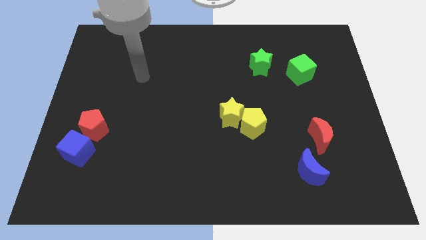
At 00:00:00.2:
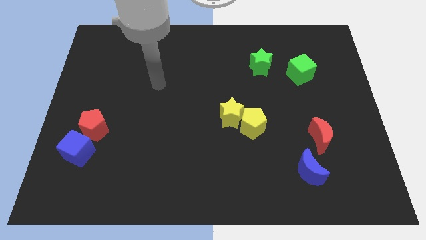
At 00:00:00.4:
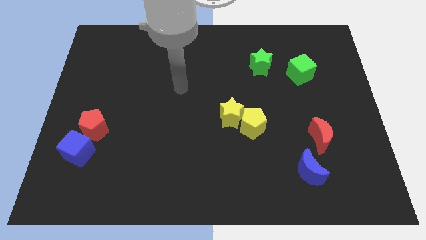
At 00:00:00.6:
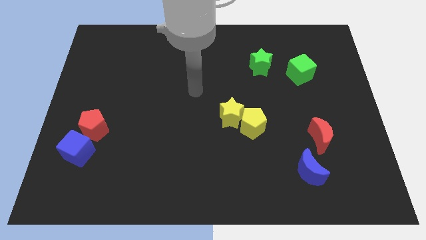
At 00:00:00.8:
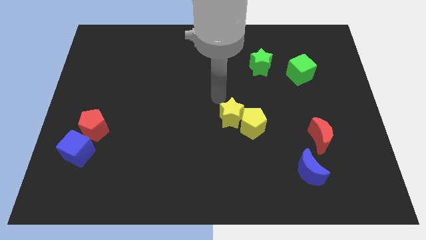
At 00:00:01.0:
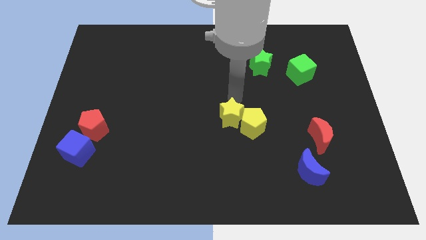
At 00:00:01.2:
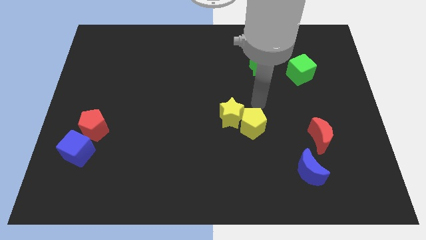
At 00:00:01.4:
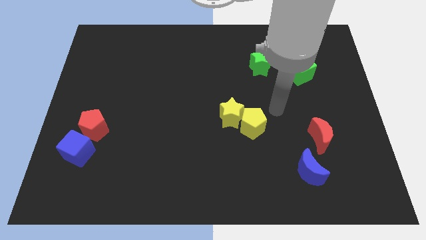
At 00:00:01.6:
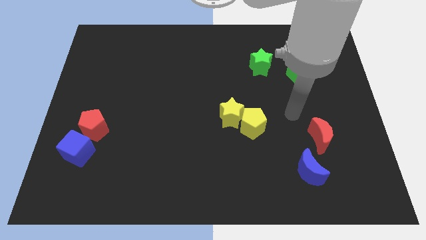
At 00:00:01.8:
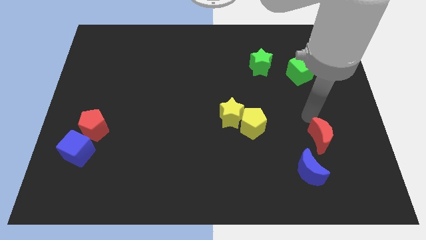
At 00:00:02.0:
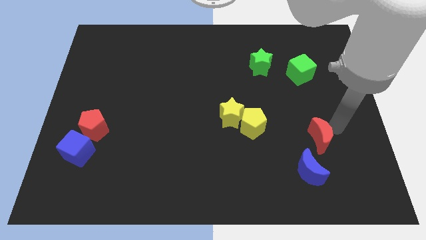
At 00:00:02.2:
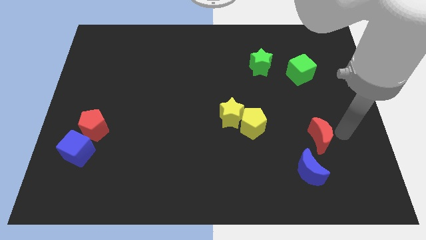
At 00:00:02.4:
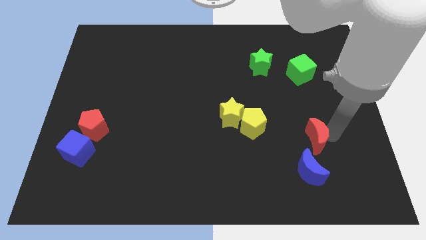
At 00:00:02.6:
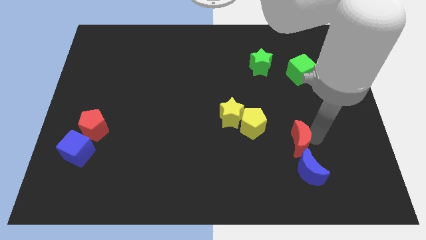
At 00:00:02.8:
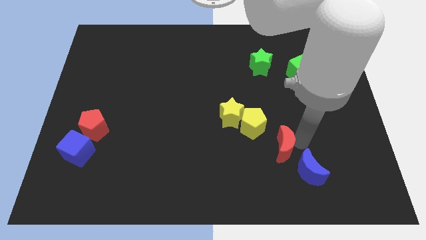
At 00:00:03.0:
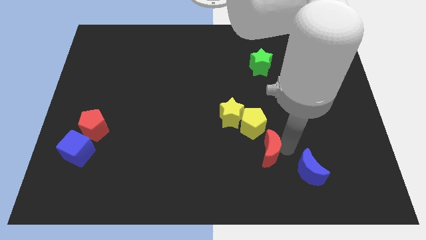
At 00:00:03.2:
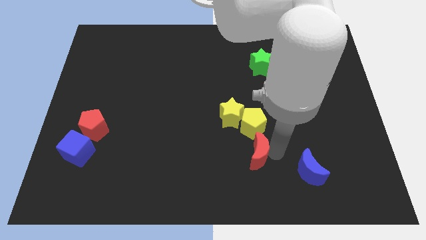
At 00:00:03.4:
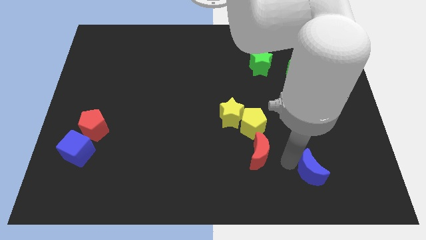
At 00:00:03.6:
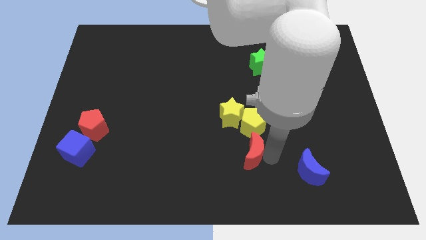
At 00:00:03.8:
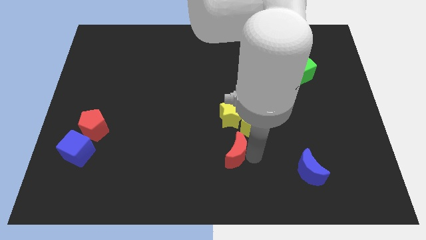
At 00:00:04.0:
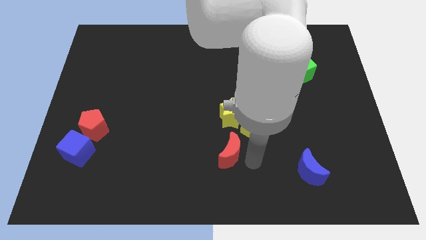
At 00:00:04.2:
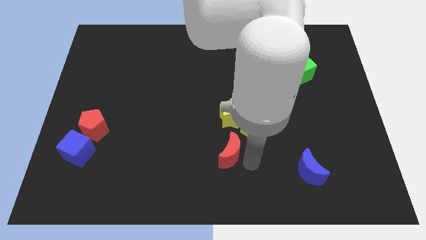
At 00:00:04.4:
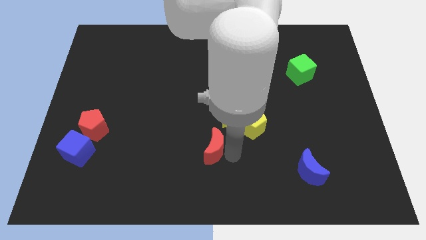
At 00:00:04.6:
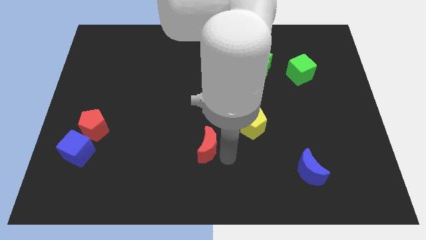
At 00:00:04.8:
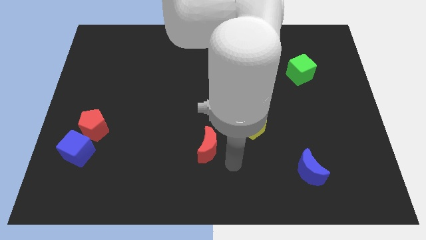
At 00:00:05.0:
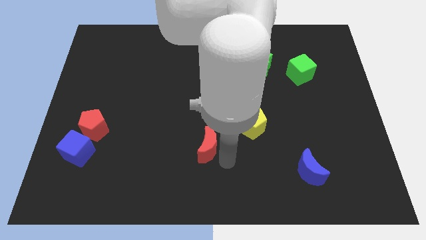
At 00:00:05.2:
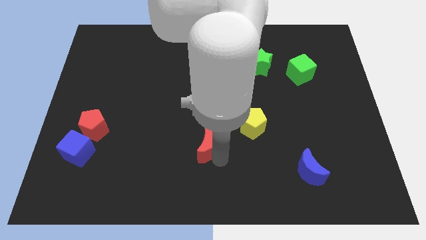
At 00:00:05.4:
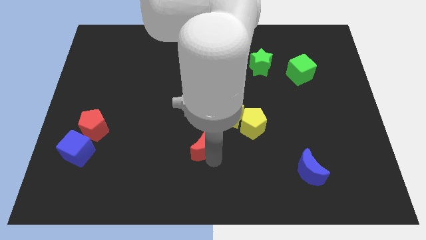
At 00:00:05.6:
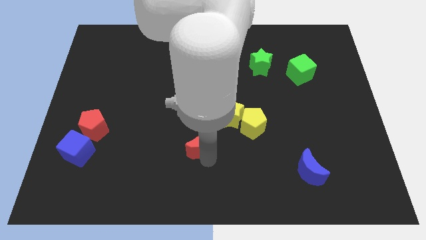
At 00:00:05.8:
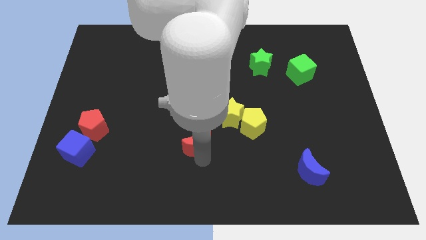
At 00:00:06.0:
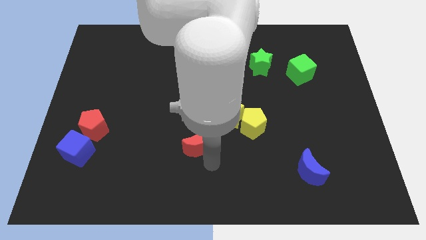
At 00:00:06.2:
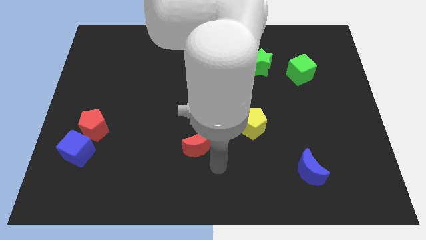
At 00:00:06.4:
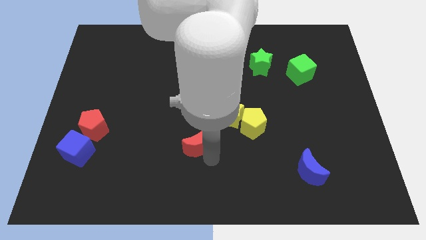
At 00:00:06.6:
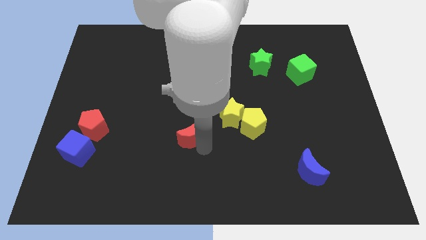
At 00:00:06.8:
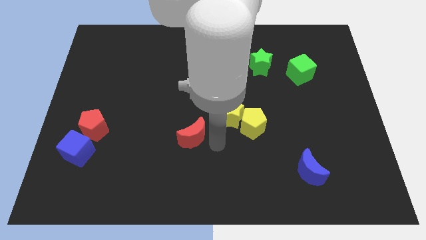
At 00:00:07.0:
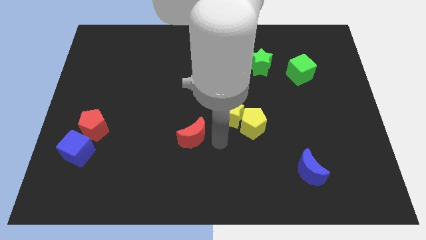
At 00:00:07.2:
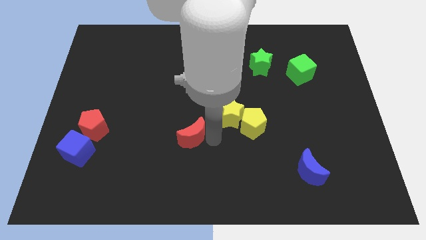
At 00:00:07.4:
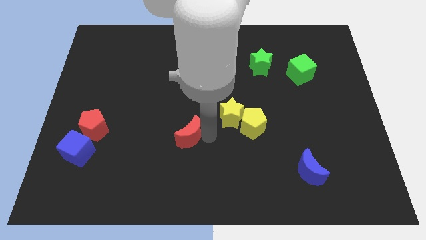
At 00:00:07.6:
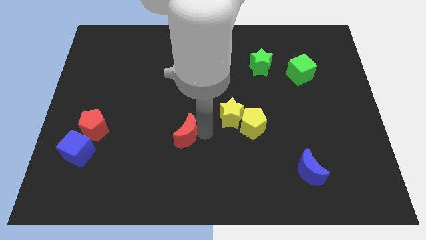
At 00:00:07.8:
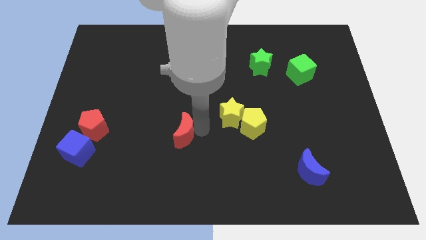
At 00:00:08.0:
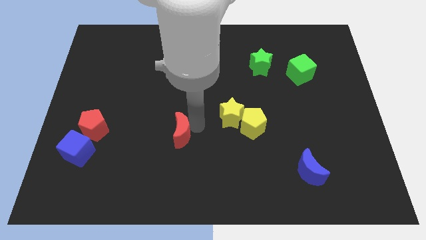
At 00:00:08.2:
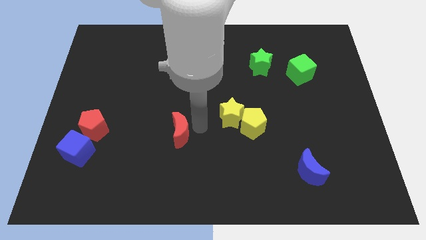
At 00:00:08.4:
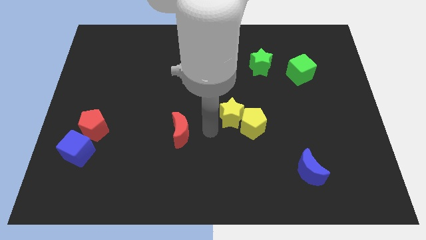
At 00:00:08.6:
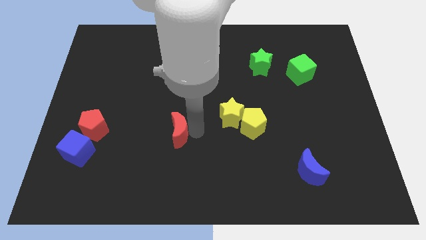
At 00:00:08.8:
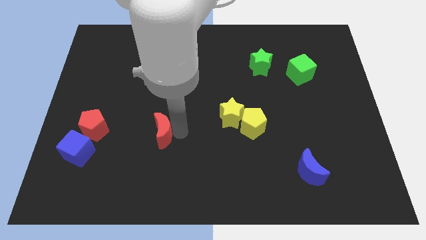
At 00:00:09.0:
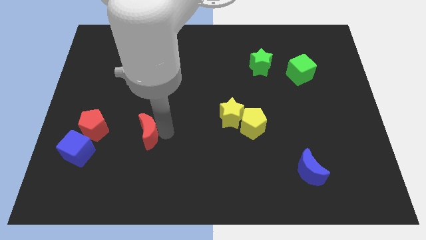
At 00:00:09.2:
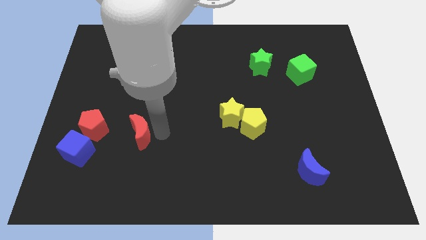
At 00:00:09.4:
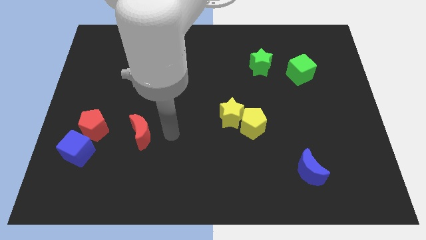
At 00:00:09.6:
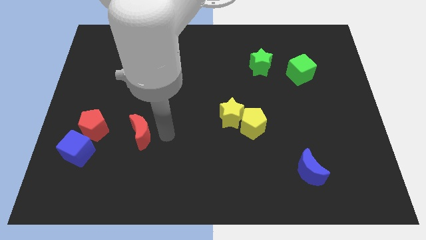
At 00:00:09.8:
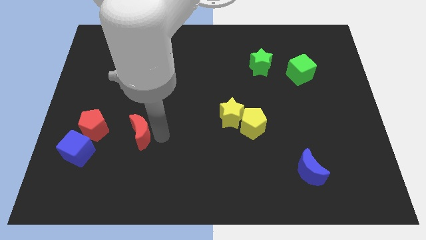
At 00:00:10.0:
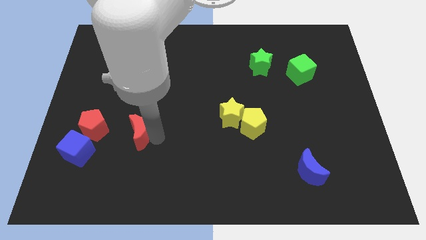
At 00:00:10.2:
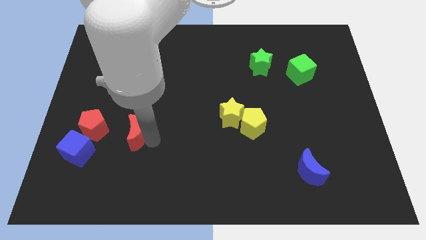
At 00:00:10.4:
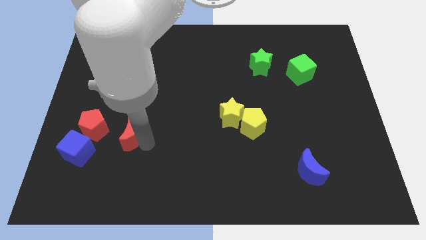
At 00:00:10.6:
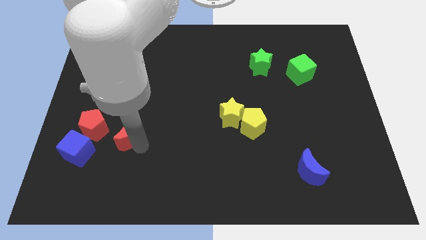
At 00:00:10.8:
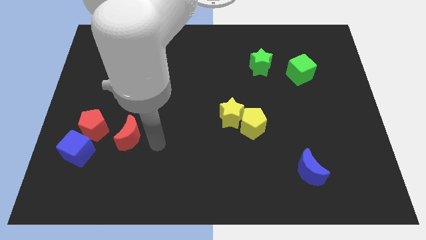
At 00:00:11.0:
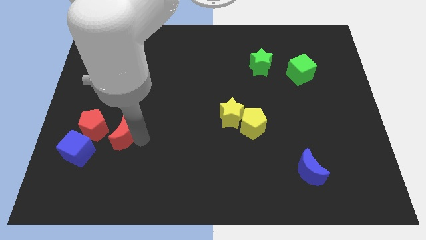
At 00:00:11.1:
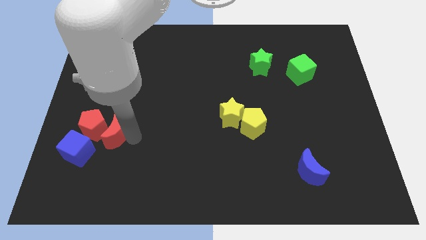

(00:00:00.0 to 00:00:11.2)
move the red moon next to the red pentagon

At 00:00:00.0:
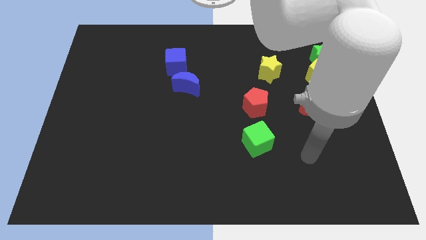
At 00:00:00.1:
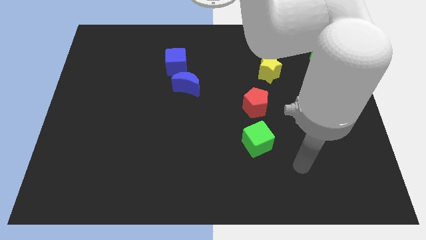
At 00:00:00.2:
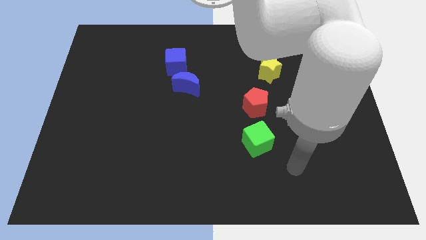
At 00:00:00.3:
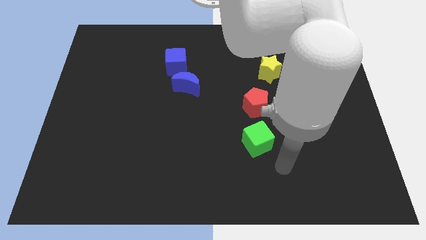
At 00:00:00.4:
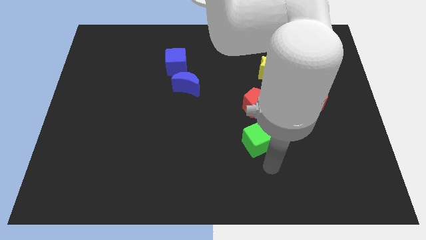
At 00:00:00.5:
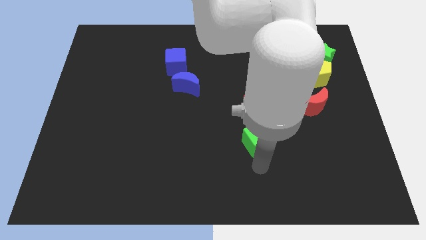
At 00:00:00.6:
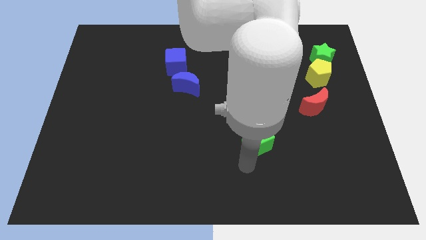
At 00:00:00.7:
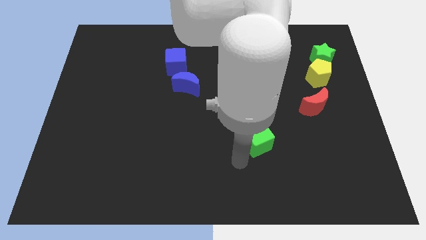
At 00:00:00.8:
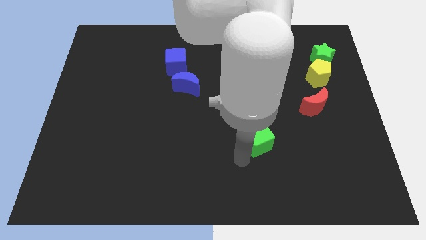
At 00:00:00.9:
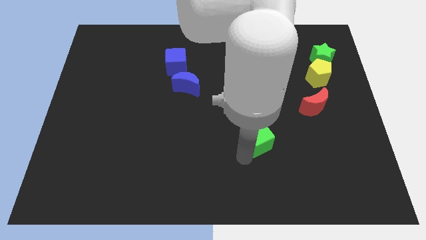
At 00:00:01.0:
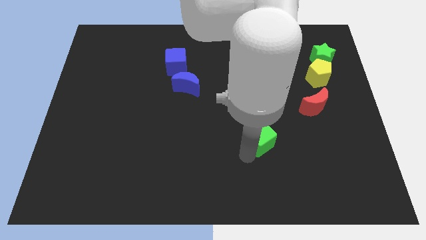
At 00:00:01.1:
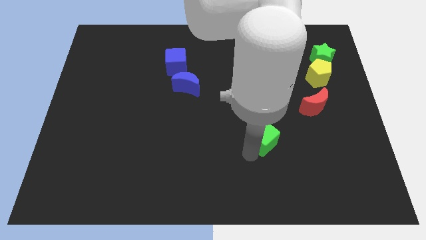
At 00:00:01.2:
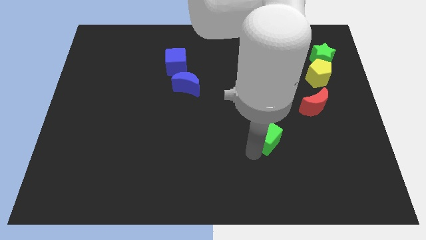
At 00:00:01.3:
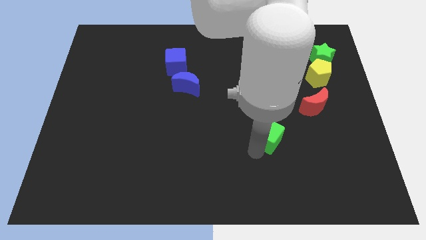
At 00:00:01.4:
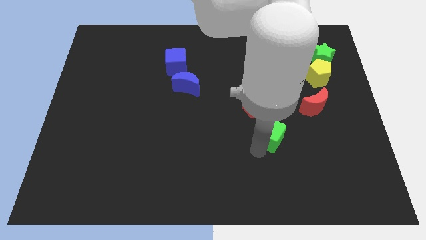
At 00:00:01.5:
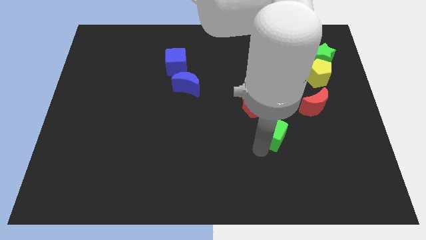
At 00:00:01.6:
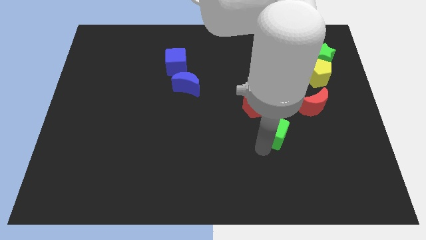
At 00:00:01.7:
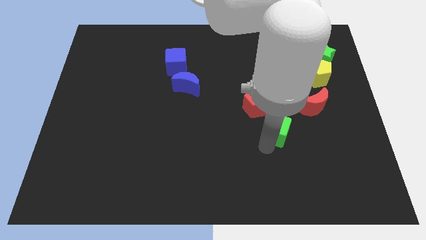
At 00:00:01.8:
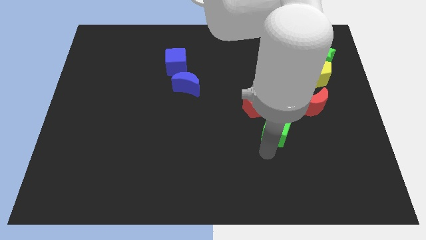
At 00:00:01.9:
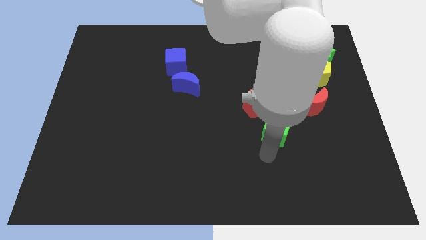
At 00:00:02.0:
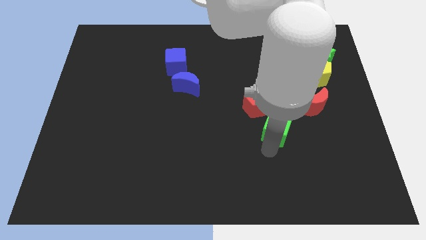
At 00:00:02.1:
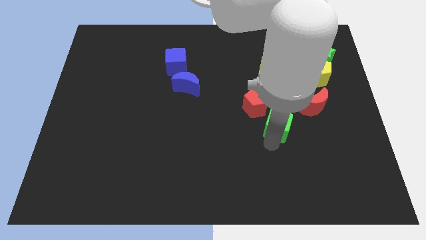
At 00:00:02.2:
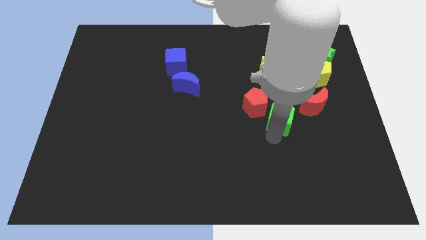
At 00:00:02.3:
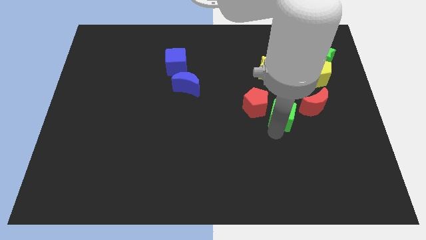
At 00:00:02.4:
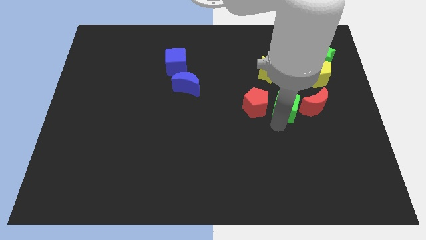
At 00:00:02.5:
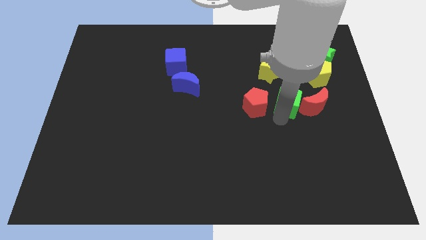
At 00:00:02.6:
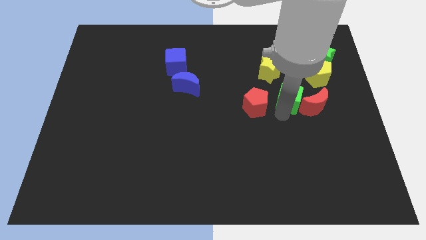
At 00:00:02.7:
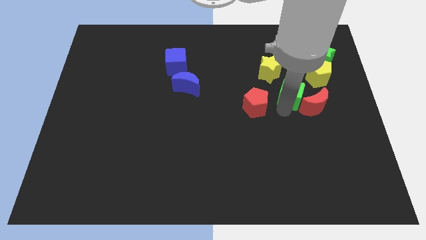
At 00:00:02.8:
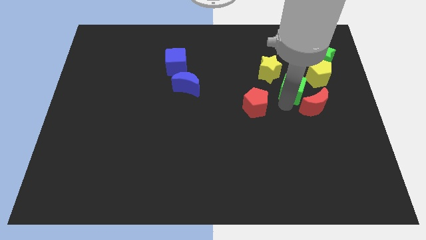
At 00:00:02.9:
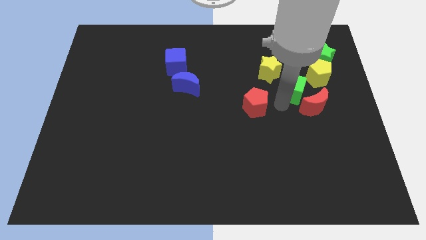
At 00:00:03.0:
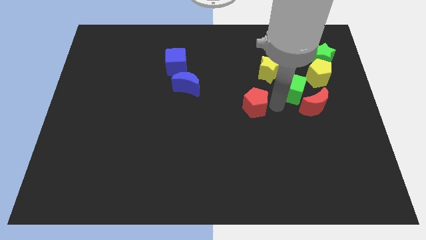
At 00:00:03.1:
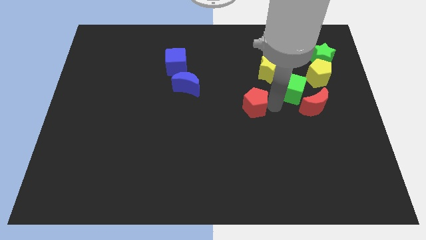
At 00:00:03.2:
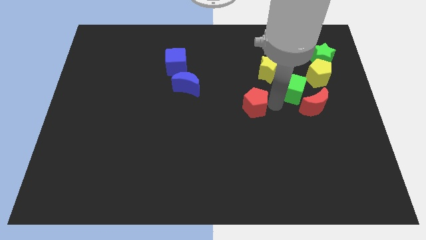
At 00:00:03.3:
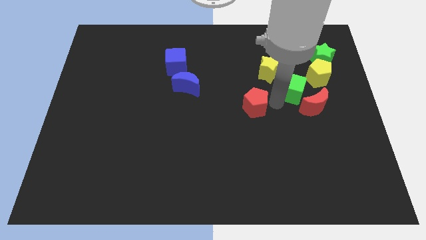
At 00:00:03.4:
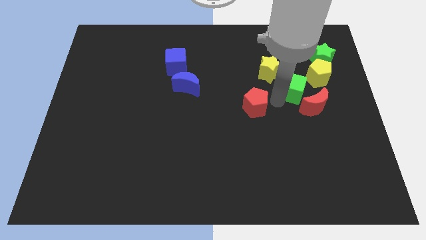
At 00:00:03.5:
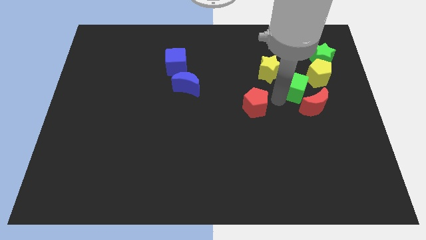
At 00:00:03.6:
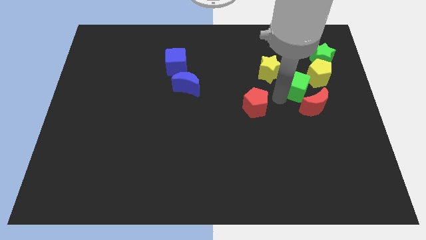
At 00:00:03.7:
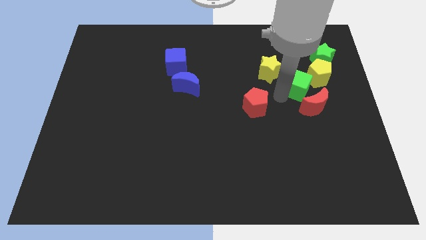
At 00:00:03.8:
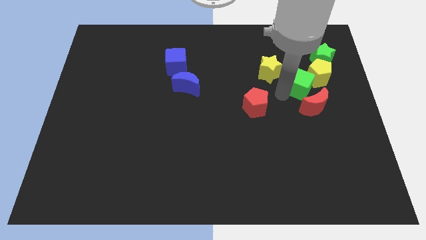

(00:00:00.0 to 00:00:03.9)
put the green cube close to the yellow pentagon
